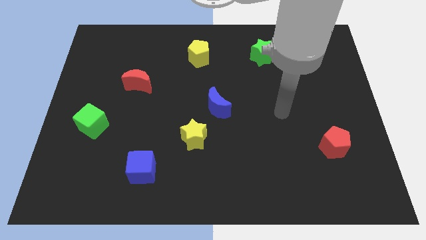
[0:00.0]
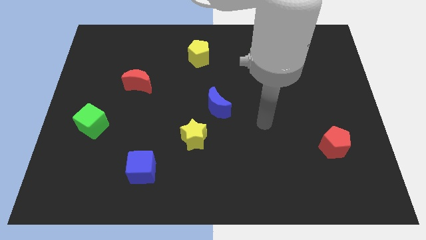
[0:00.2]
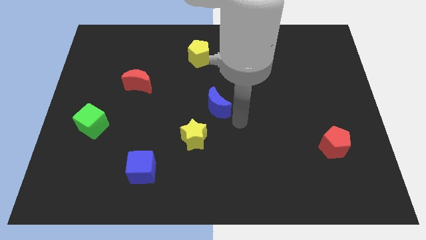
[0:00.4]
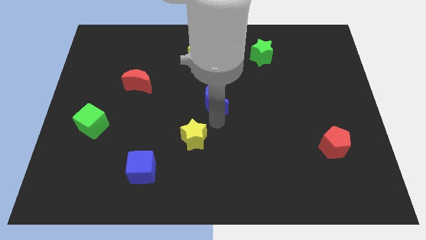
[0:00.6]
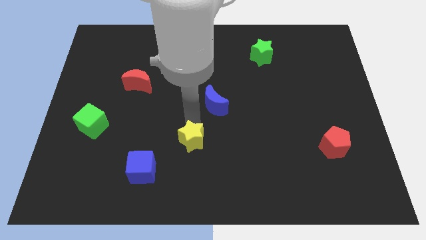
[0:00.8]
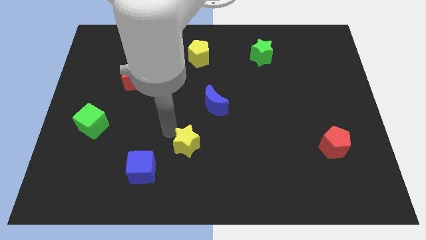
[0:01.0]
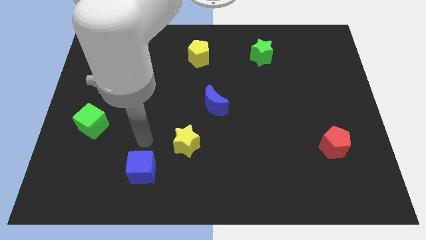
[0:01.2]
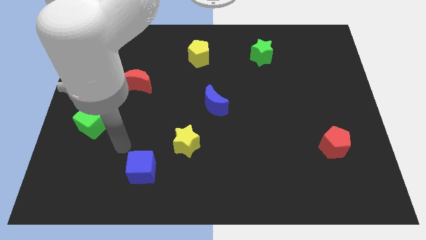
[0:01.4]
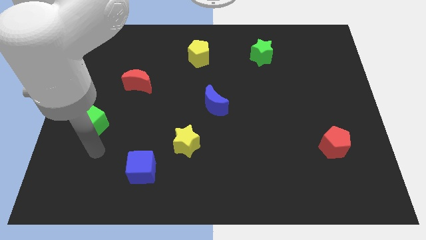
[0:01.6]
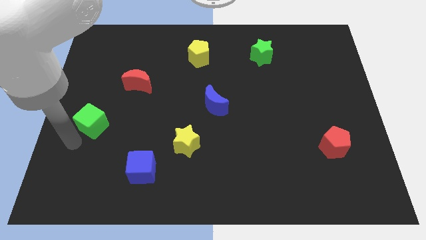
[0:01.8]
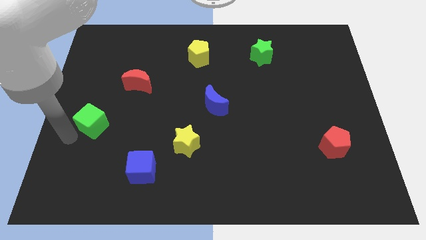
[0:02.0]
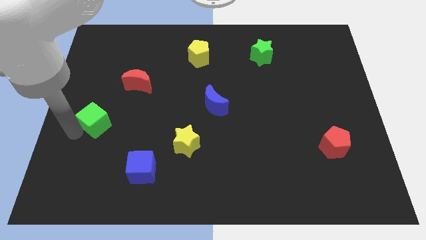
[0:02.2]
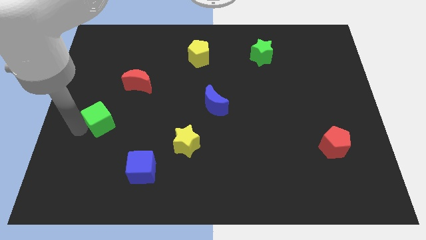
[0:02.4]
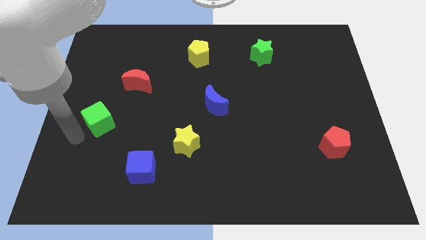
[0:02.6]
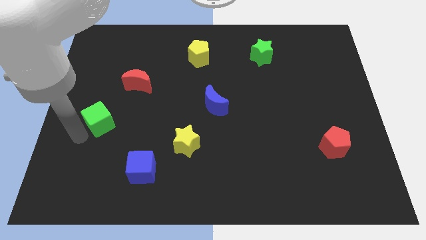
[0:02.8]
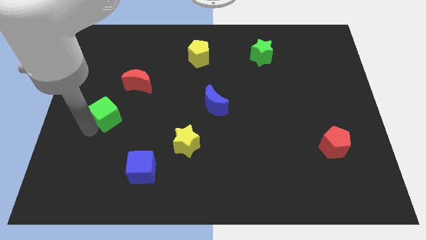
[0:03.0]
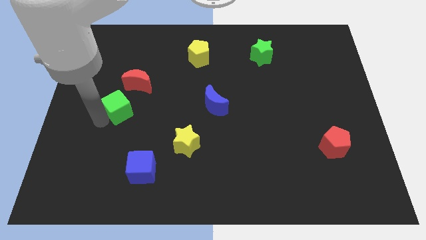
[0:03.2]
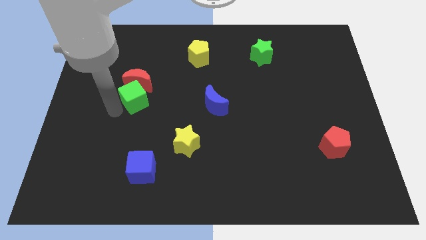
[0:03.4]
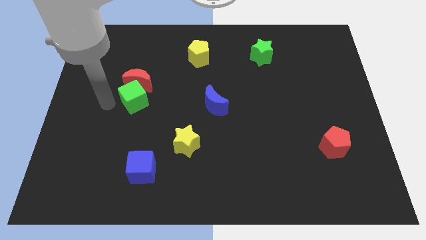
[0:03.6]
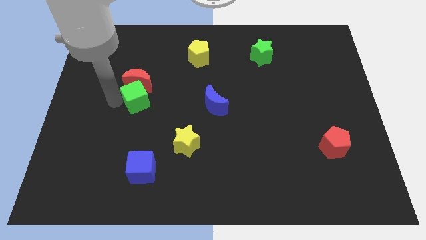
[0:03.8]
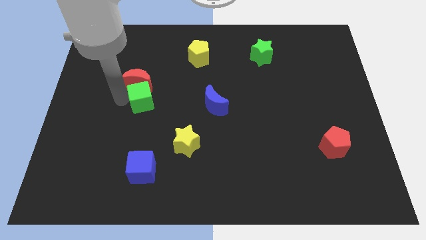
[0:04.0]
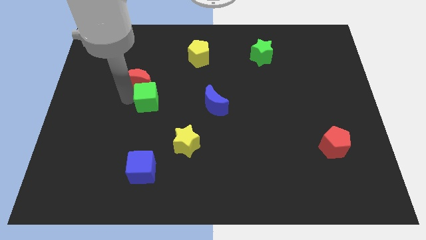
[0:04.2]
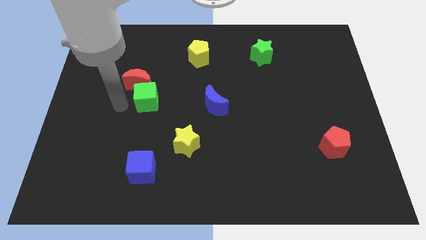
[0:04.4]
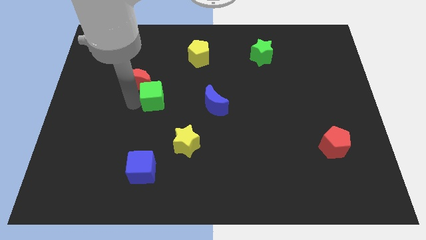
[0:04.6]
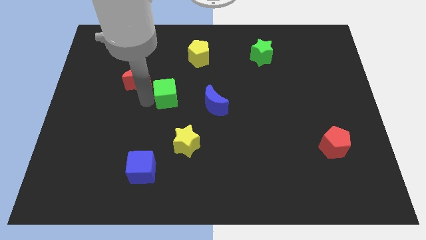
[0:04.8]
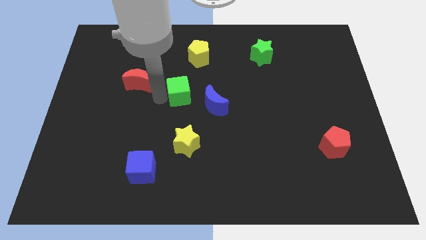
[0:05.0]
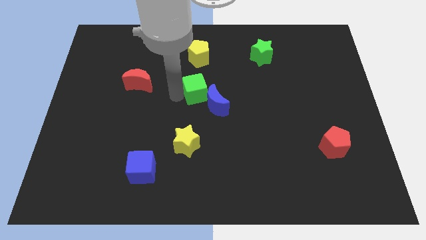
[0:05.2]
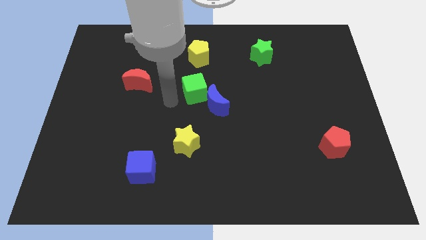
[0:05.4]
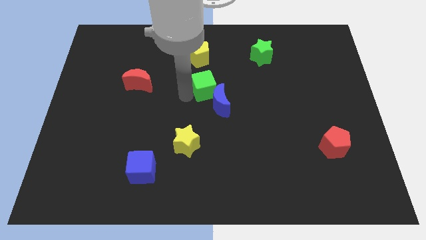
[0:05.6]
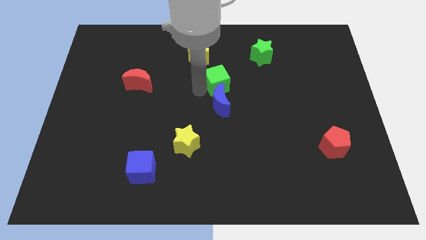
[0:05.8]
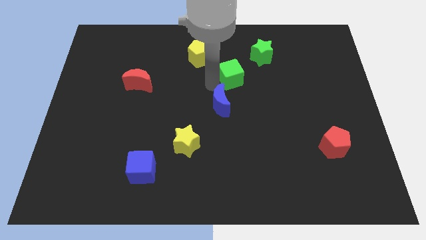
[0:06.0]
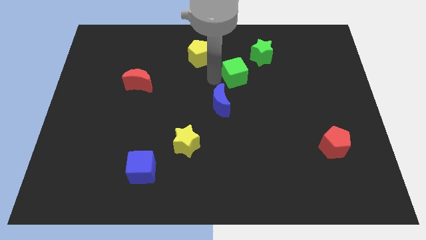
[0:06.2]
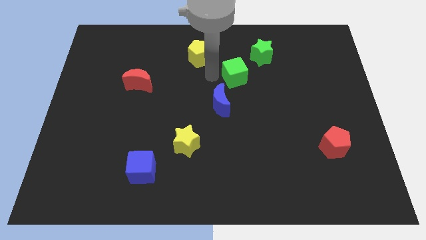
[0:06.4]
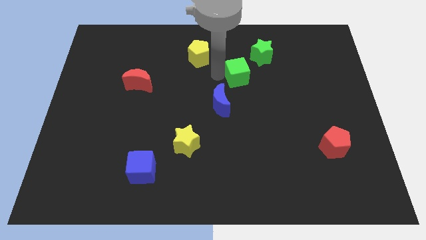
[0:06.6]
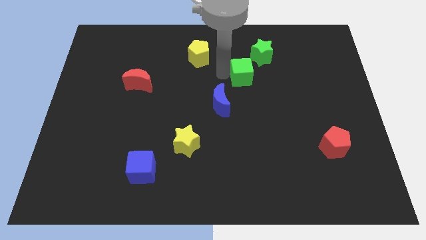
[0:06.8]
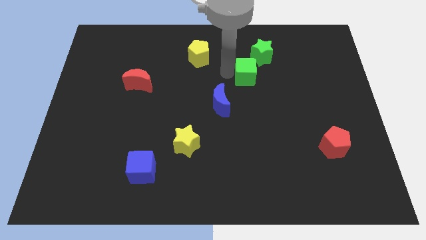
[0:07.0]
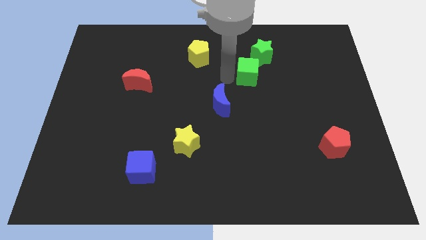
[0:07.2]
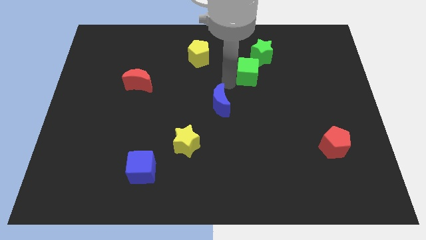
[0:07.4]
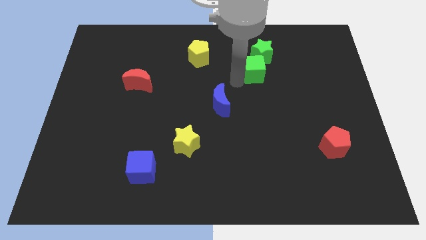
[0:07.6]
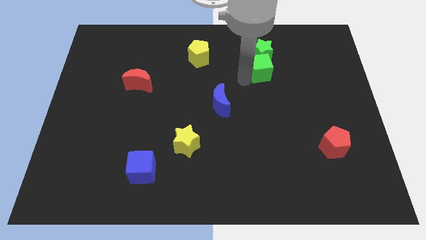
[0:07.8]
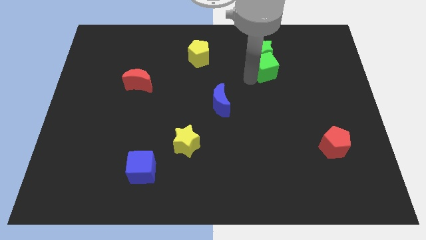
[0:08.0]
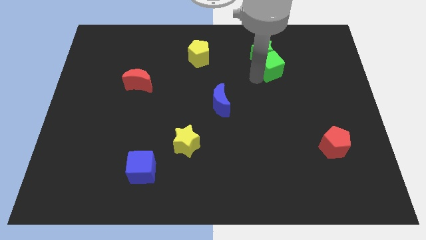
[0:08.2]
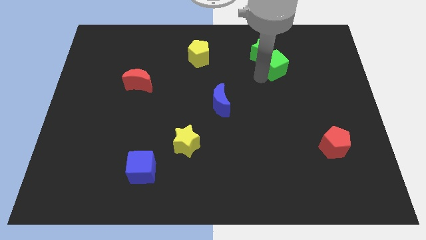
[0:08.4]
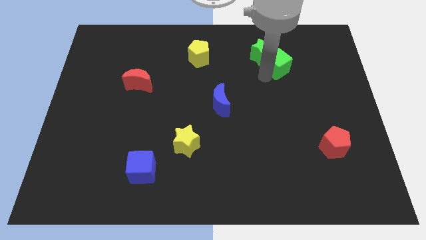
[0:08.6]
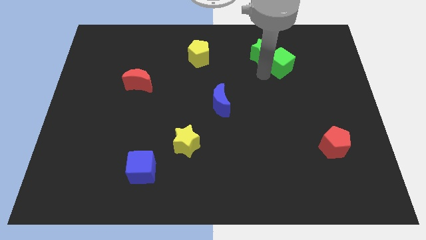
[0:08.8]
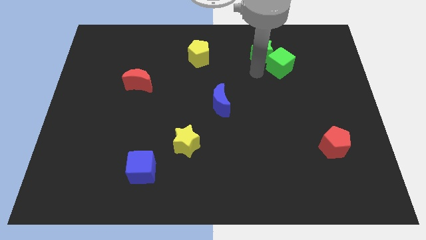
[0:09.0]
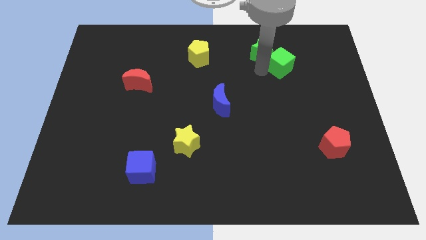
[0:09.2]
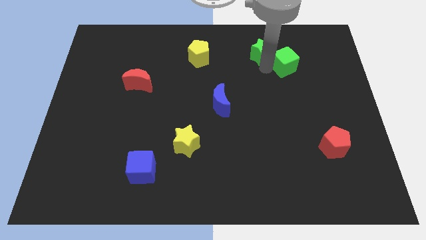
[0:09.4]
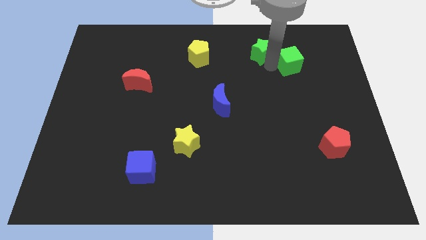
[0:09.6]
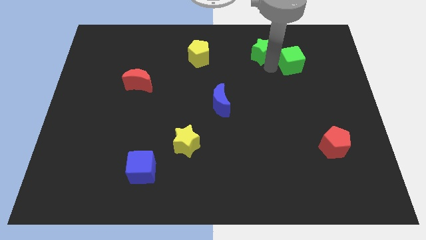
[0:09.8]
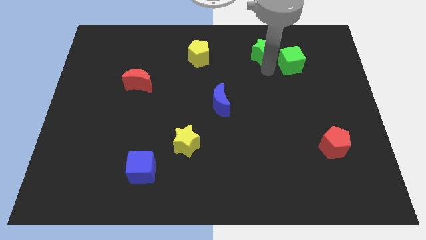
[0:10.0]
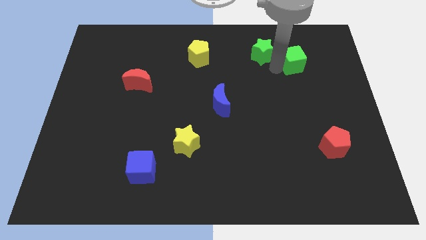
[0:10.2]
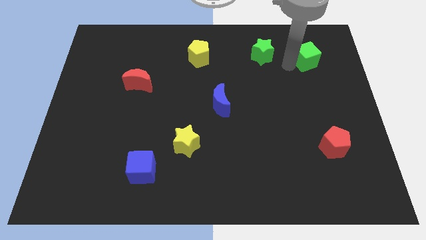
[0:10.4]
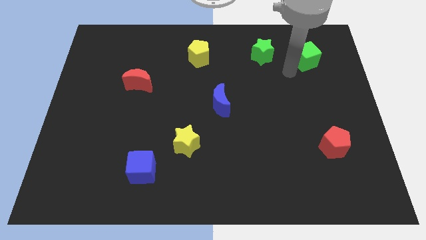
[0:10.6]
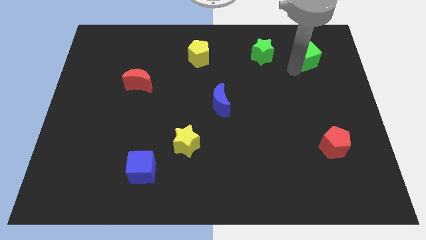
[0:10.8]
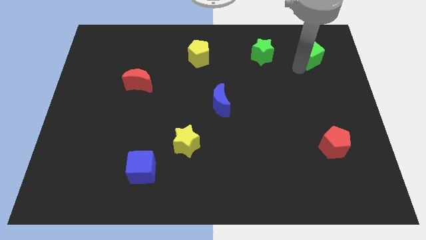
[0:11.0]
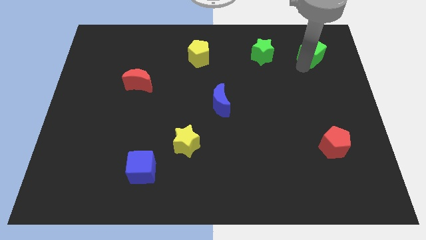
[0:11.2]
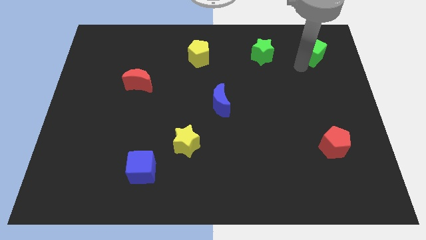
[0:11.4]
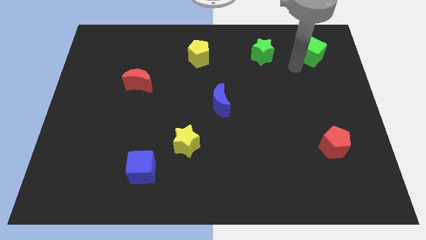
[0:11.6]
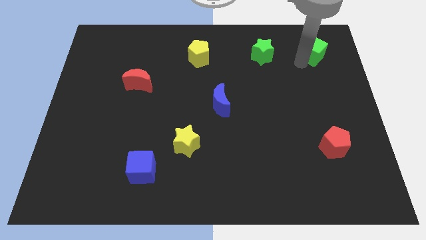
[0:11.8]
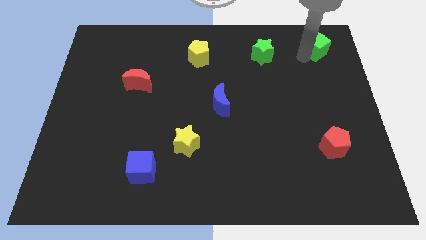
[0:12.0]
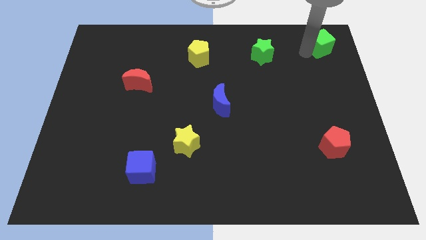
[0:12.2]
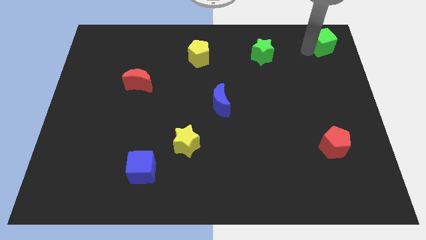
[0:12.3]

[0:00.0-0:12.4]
slide the green cube to the upper right corner

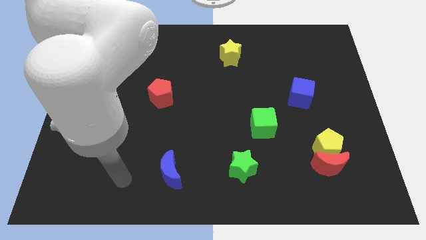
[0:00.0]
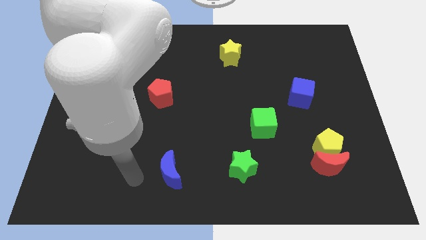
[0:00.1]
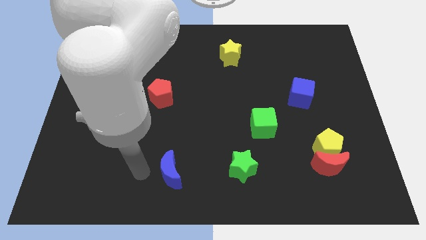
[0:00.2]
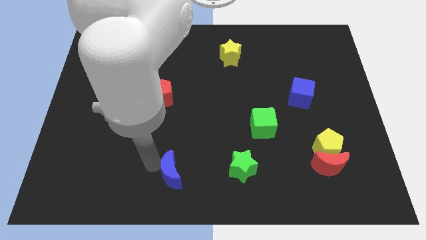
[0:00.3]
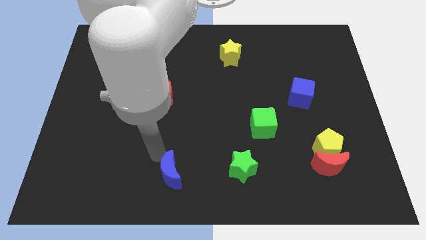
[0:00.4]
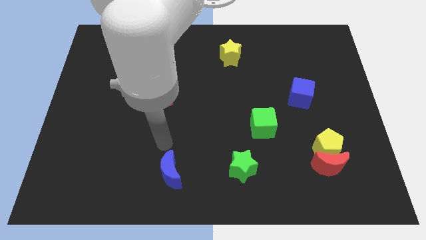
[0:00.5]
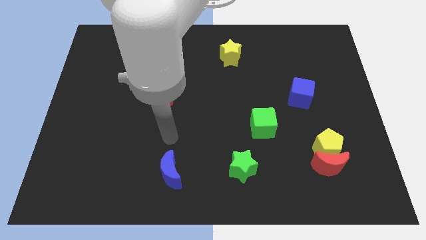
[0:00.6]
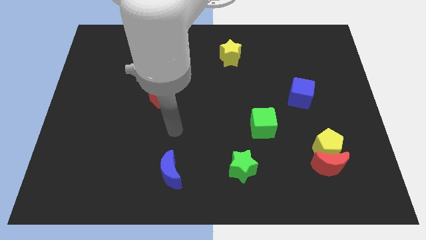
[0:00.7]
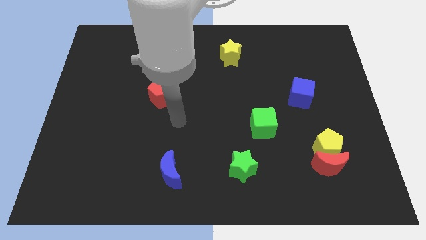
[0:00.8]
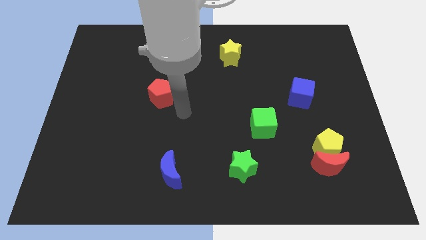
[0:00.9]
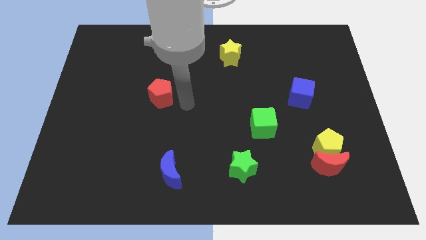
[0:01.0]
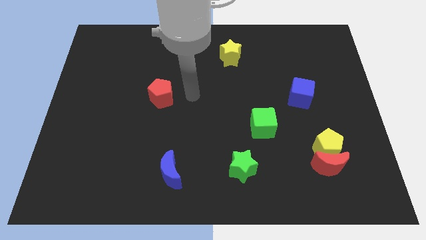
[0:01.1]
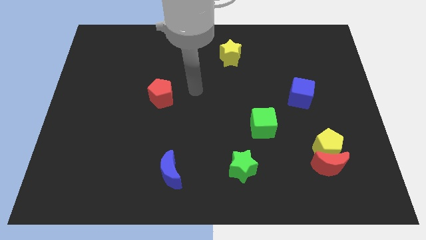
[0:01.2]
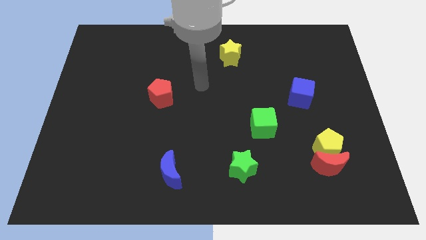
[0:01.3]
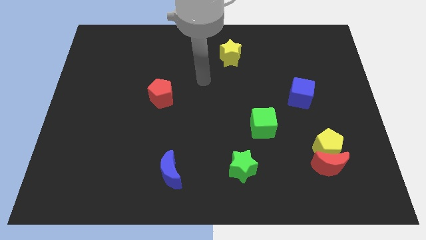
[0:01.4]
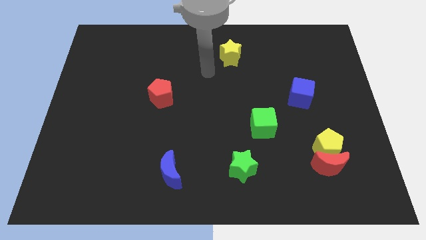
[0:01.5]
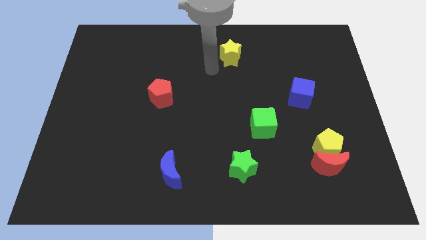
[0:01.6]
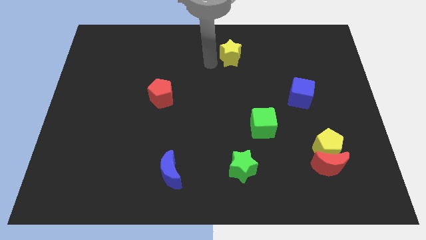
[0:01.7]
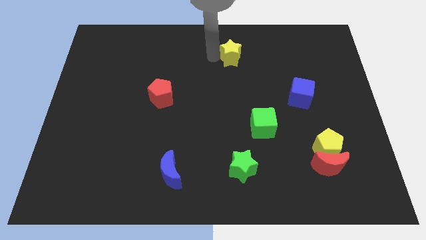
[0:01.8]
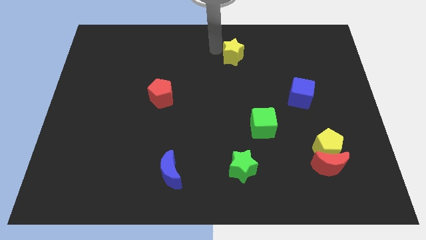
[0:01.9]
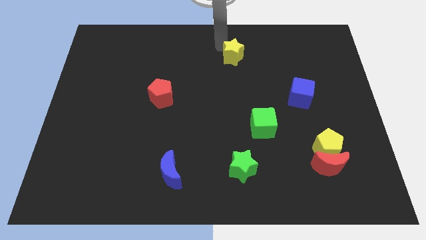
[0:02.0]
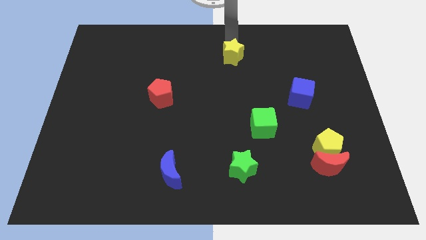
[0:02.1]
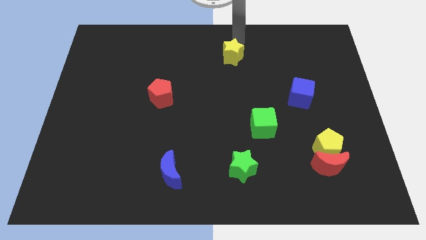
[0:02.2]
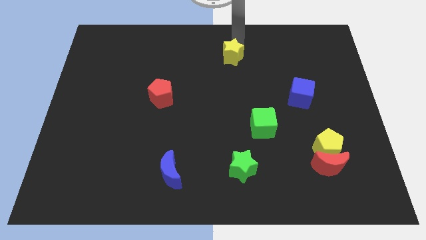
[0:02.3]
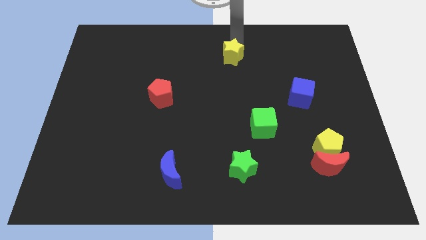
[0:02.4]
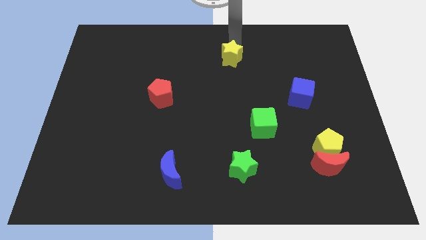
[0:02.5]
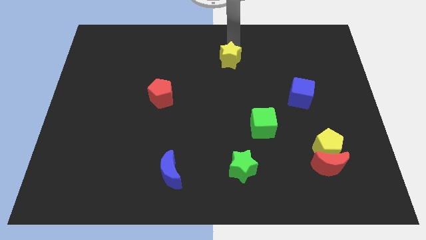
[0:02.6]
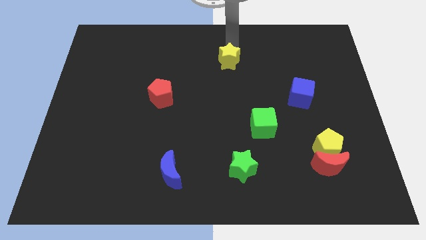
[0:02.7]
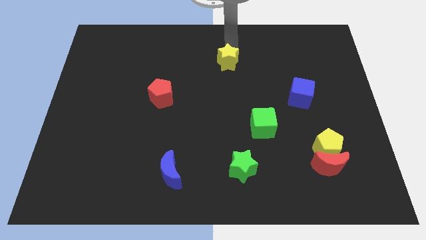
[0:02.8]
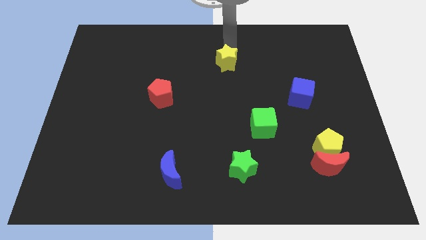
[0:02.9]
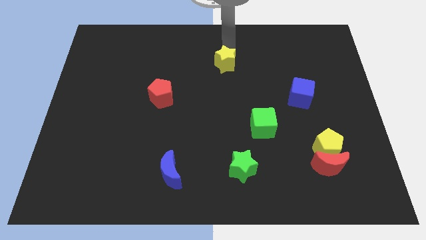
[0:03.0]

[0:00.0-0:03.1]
slide the yellow star to the center
